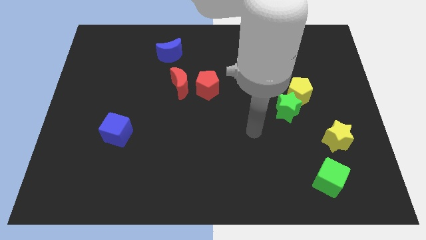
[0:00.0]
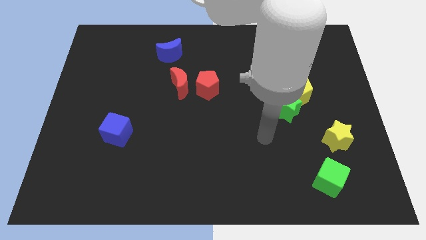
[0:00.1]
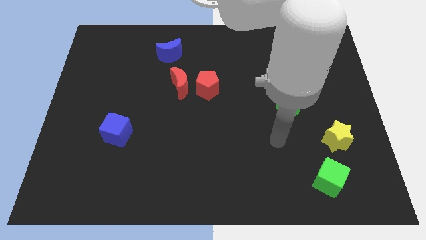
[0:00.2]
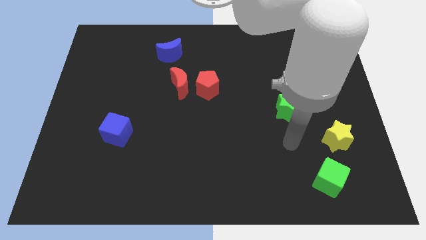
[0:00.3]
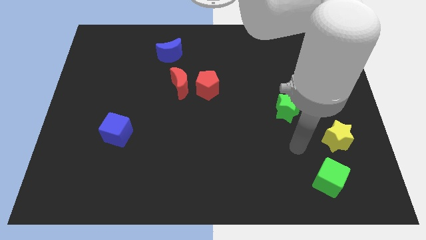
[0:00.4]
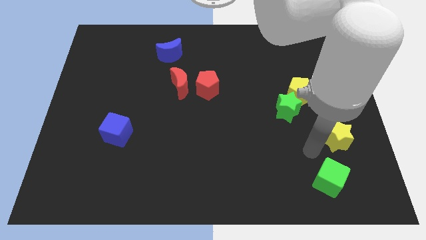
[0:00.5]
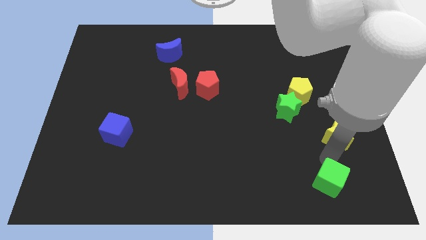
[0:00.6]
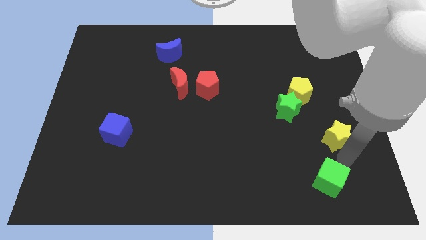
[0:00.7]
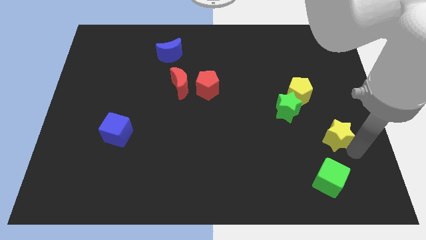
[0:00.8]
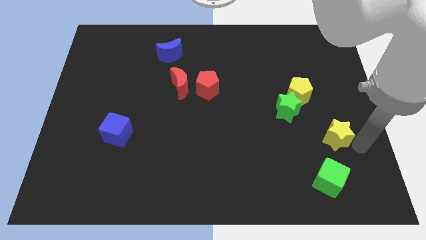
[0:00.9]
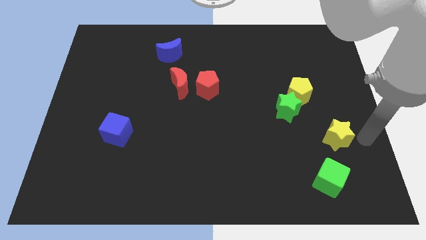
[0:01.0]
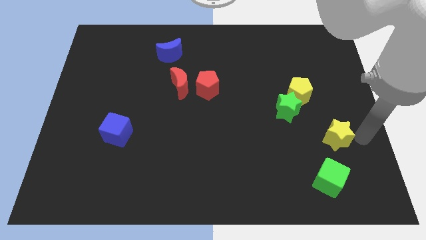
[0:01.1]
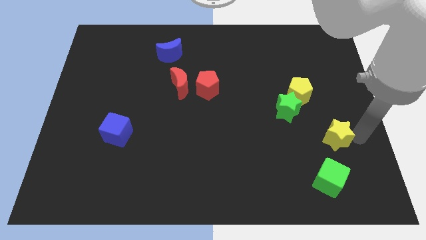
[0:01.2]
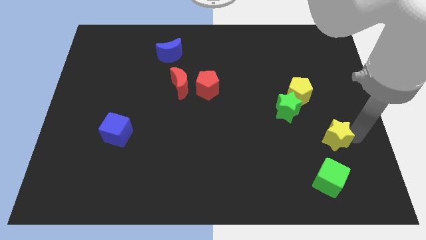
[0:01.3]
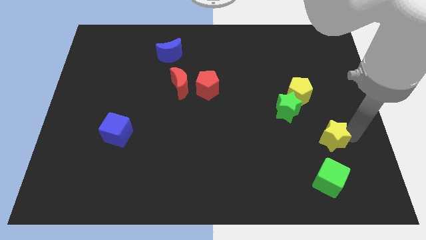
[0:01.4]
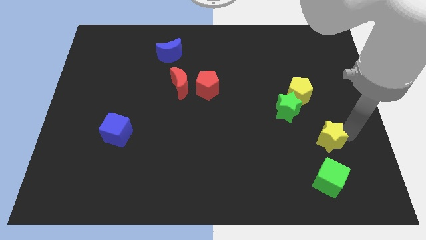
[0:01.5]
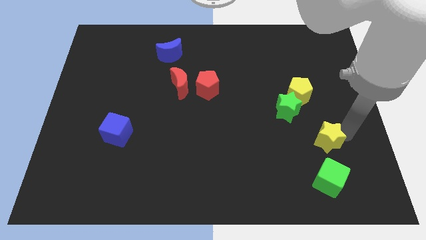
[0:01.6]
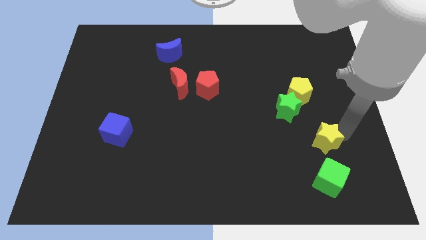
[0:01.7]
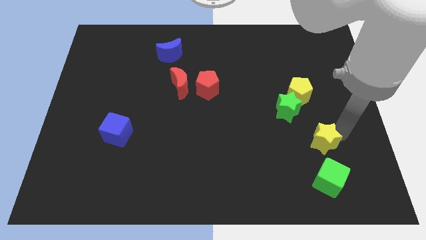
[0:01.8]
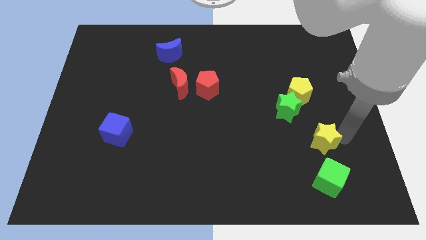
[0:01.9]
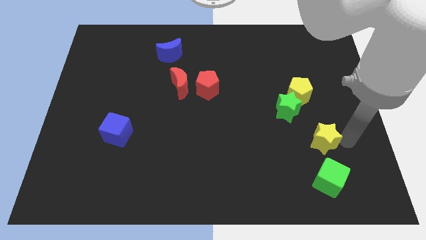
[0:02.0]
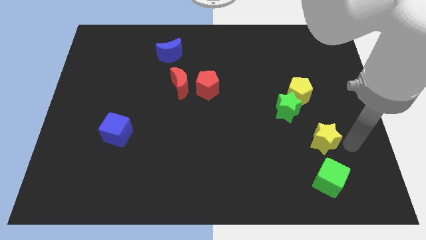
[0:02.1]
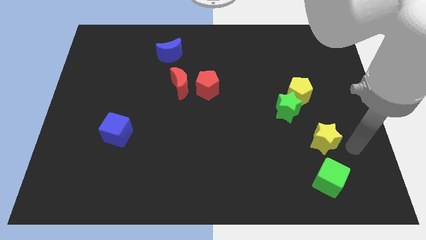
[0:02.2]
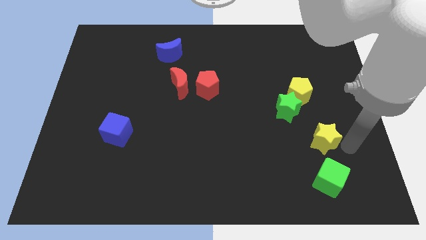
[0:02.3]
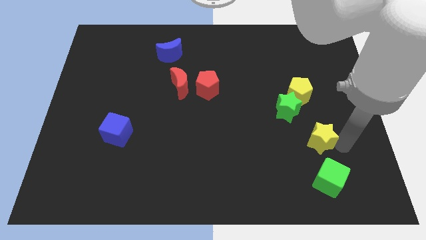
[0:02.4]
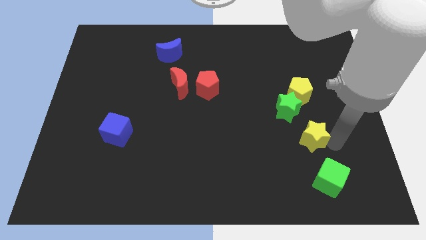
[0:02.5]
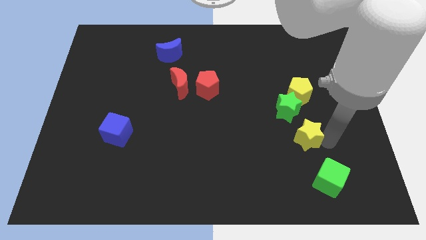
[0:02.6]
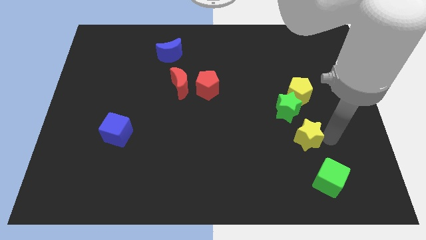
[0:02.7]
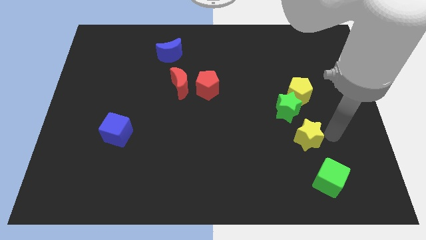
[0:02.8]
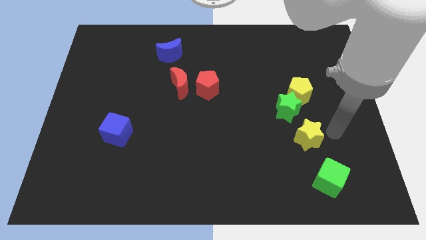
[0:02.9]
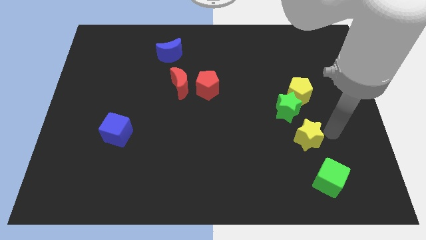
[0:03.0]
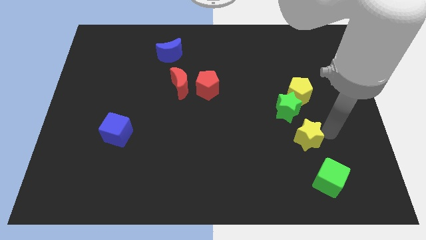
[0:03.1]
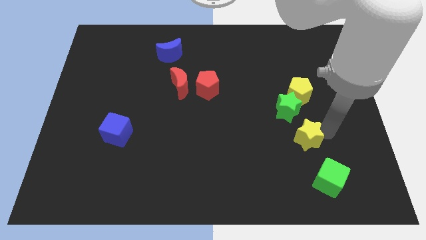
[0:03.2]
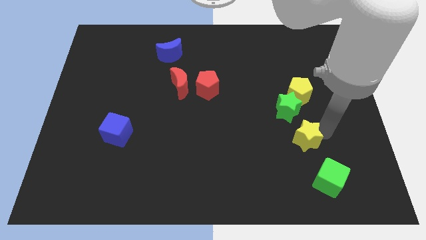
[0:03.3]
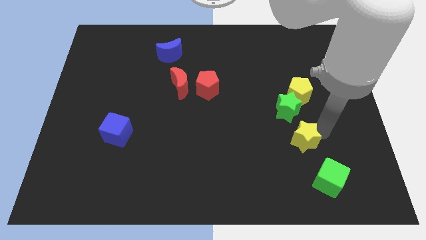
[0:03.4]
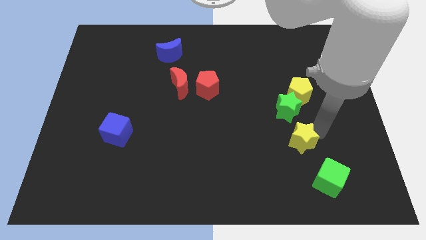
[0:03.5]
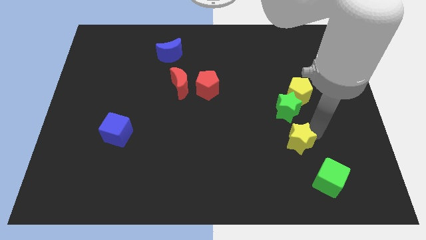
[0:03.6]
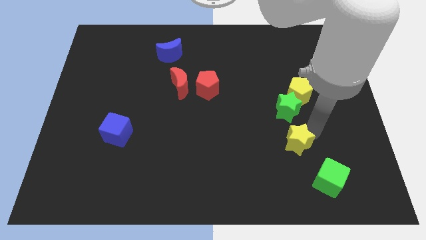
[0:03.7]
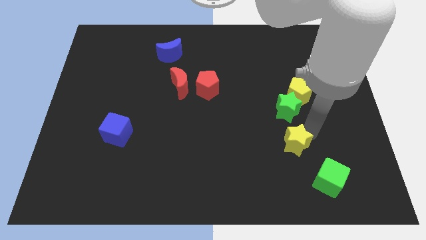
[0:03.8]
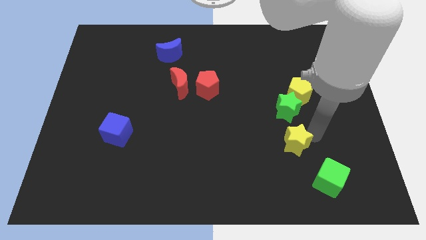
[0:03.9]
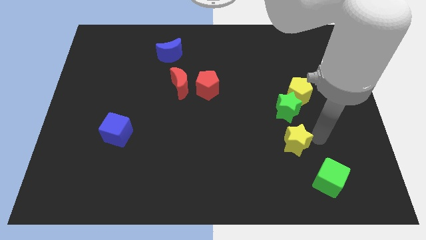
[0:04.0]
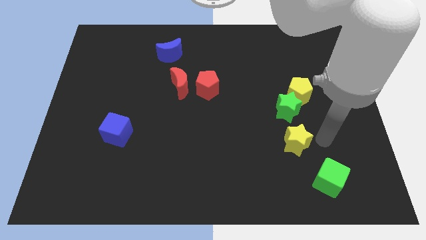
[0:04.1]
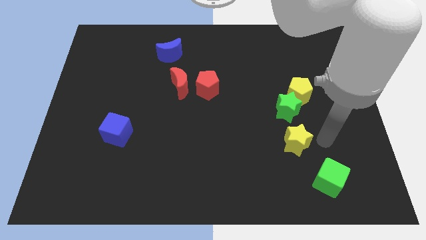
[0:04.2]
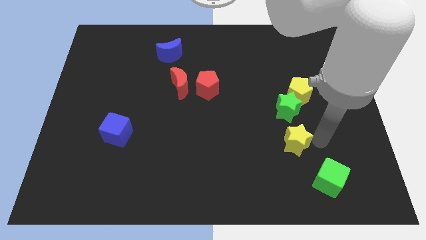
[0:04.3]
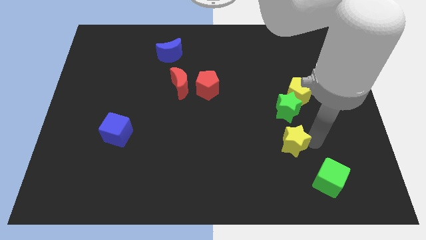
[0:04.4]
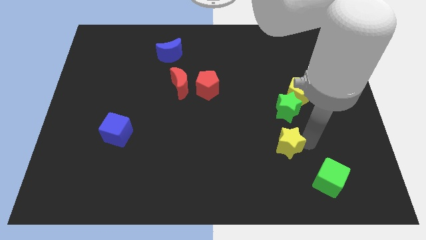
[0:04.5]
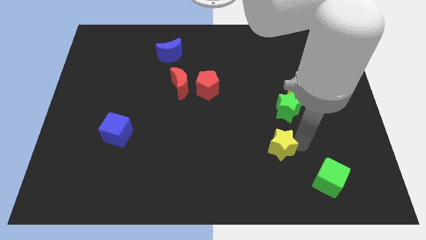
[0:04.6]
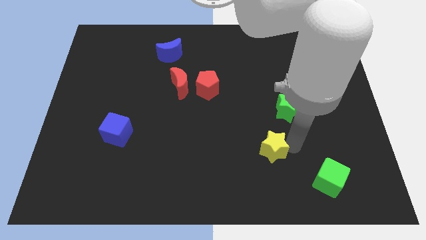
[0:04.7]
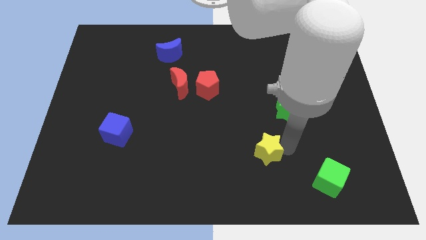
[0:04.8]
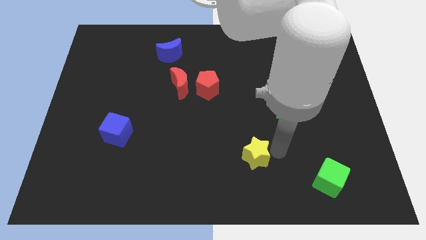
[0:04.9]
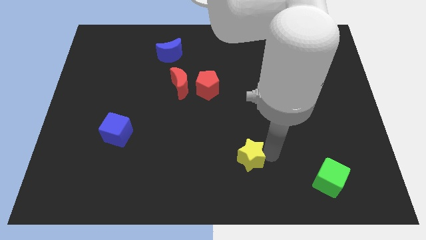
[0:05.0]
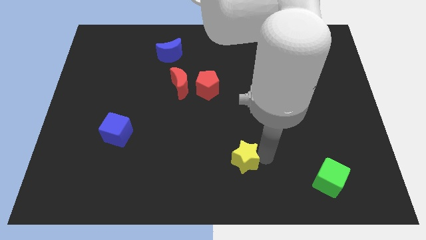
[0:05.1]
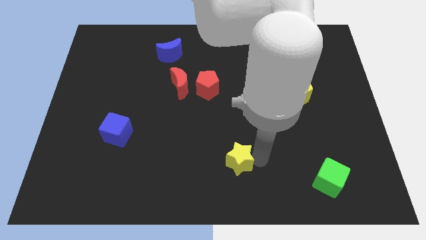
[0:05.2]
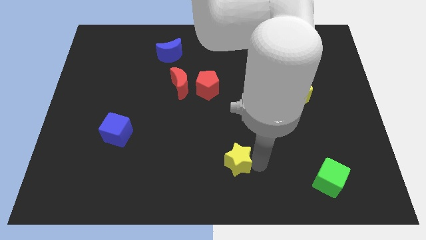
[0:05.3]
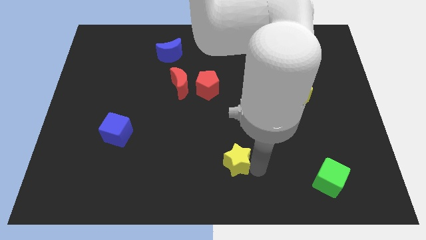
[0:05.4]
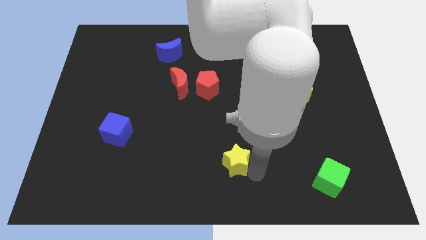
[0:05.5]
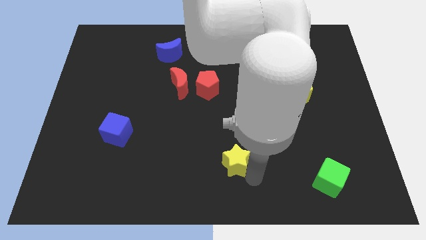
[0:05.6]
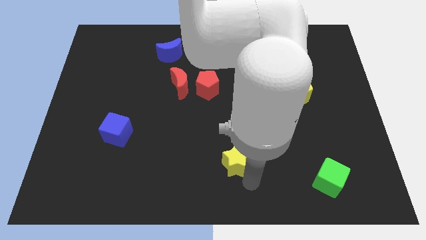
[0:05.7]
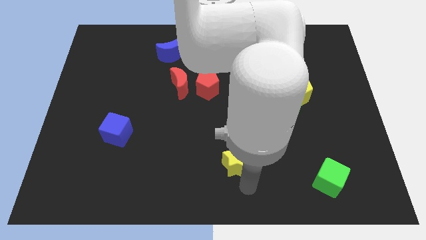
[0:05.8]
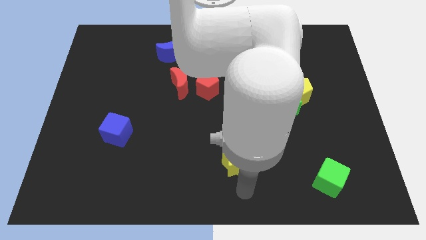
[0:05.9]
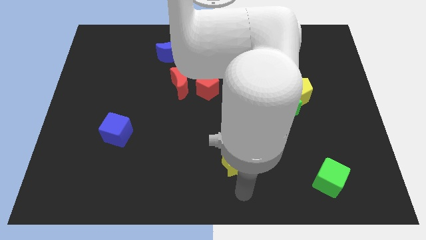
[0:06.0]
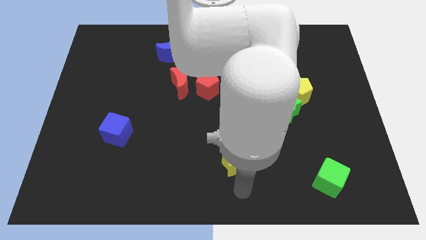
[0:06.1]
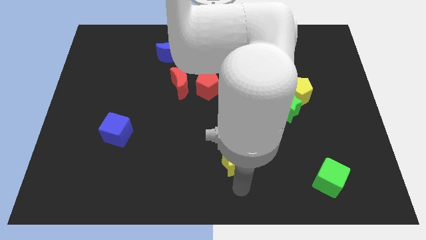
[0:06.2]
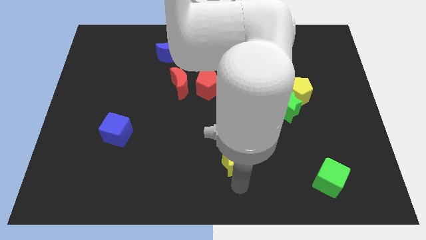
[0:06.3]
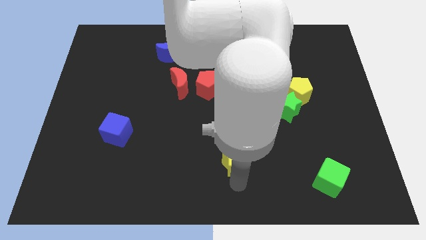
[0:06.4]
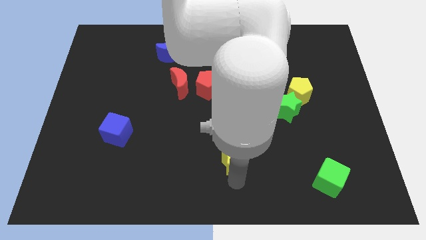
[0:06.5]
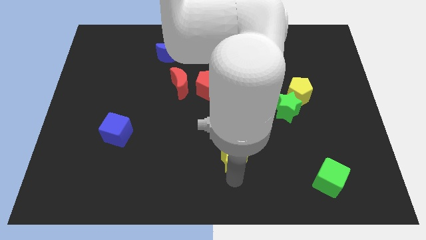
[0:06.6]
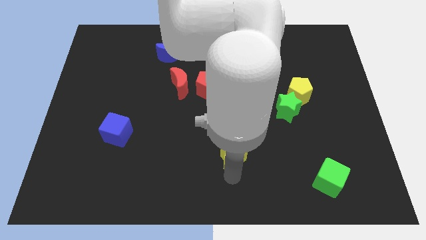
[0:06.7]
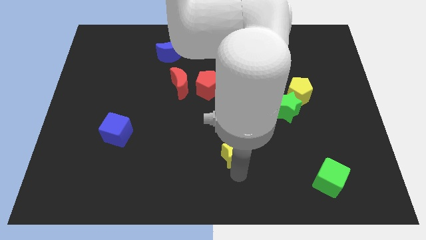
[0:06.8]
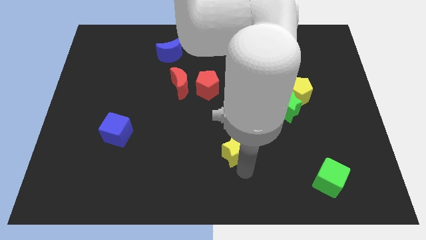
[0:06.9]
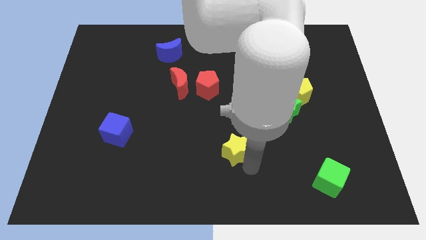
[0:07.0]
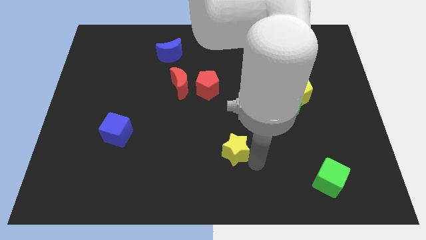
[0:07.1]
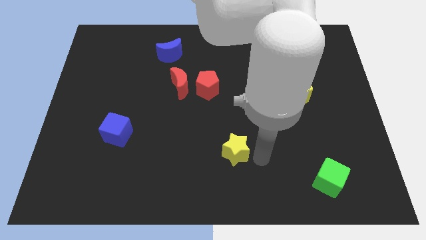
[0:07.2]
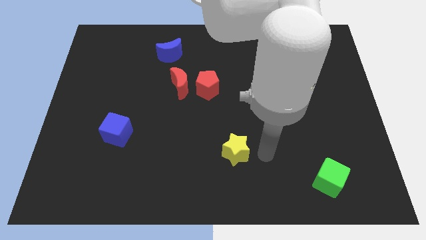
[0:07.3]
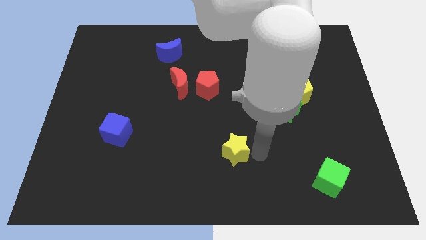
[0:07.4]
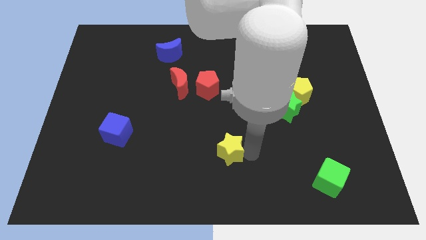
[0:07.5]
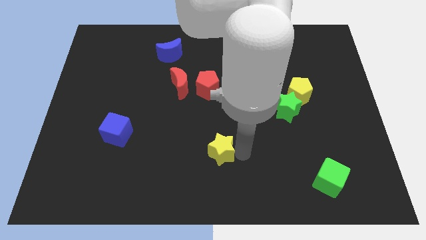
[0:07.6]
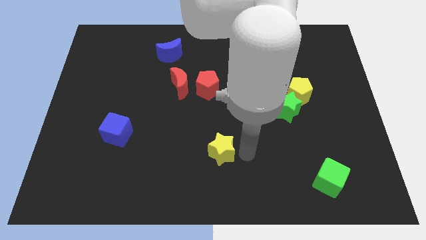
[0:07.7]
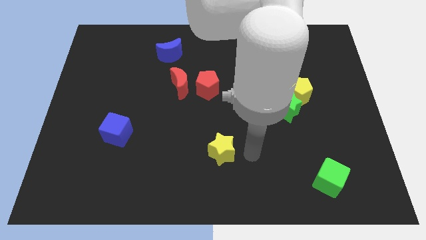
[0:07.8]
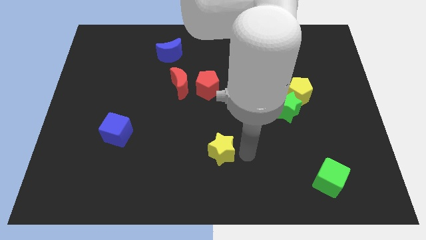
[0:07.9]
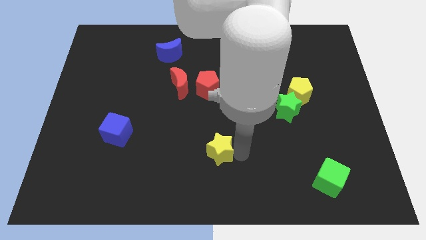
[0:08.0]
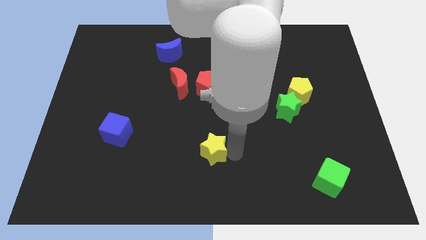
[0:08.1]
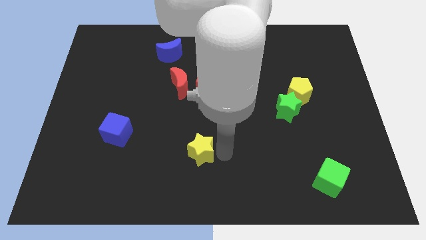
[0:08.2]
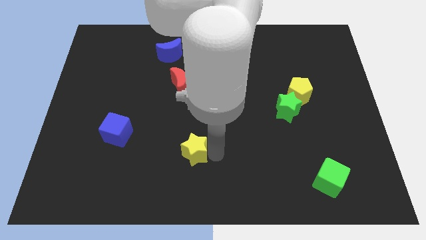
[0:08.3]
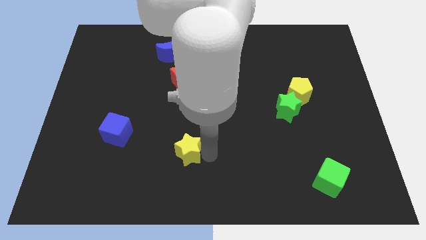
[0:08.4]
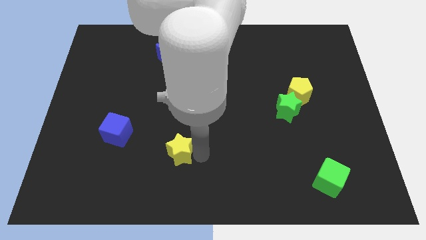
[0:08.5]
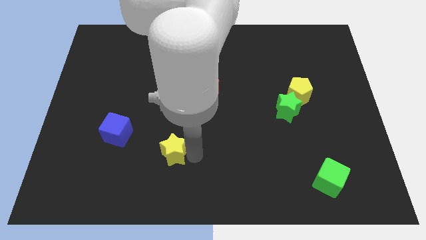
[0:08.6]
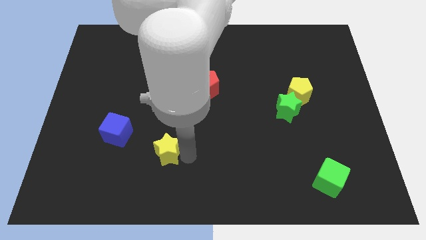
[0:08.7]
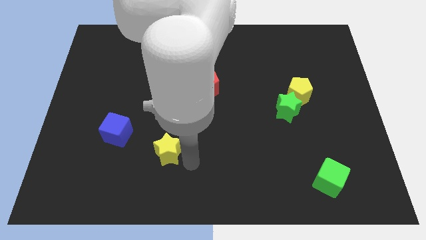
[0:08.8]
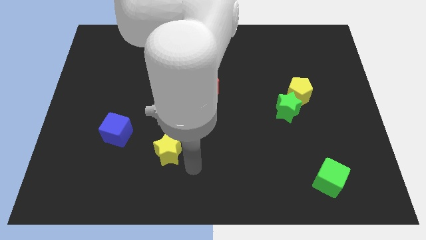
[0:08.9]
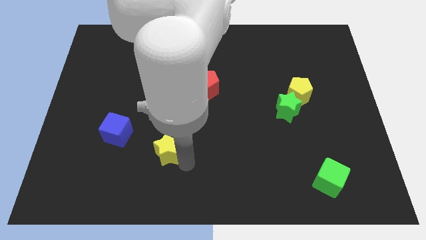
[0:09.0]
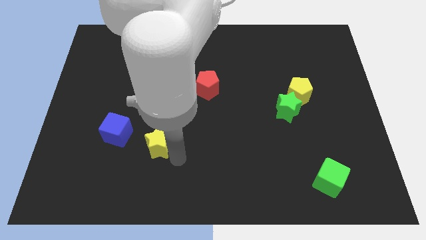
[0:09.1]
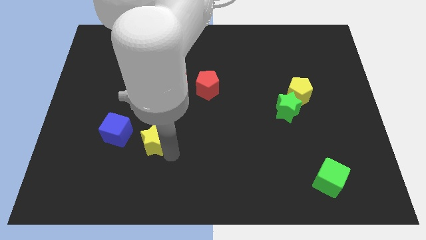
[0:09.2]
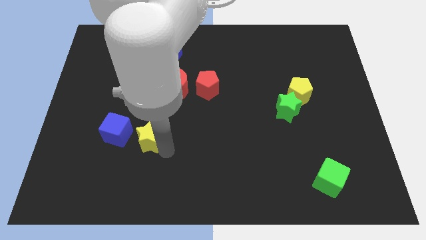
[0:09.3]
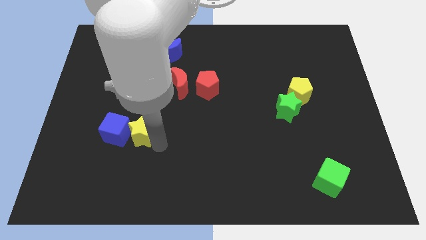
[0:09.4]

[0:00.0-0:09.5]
move the yellow star to the blue cube
